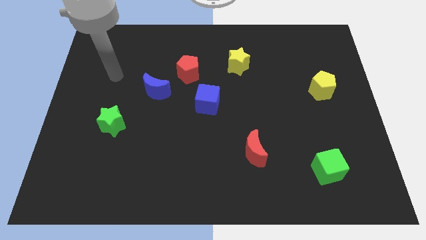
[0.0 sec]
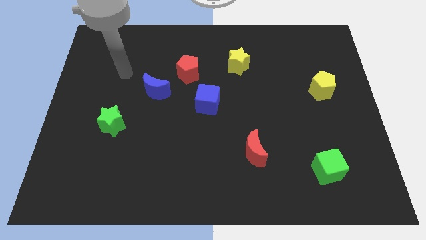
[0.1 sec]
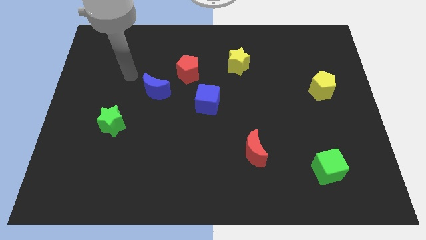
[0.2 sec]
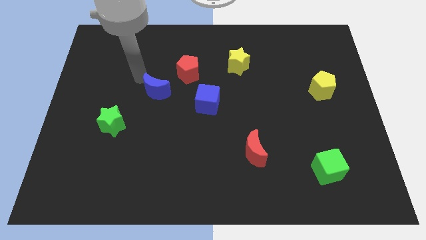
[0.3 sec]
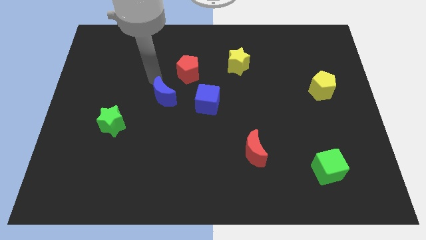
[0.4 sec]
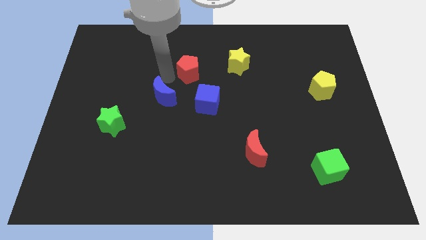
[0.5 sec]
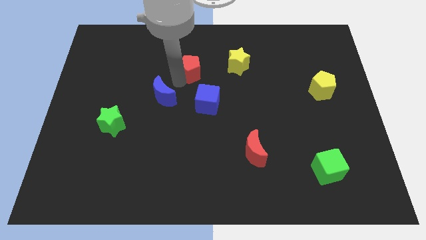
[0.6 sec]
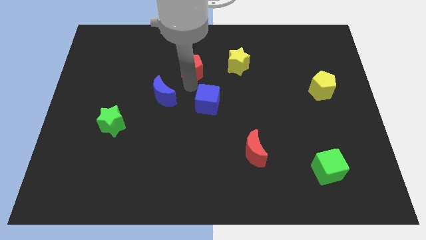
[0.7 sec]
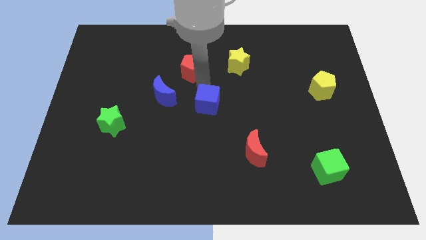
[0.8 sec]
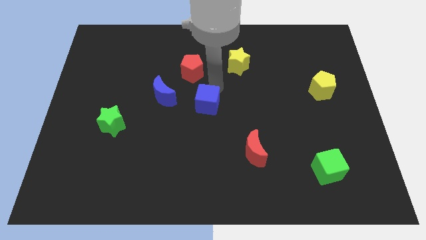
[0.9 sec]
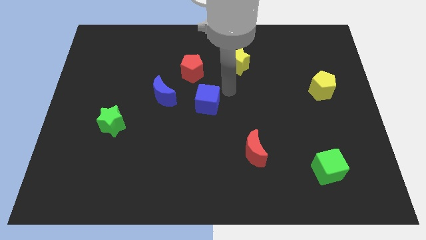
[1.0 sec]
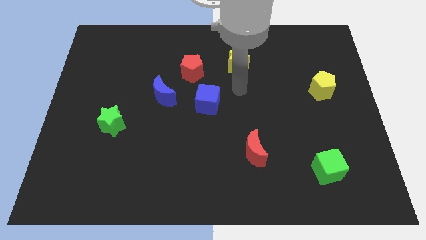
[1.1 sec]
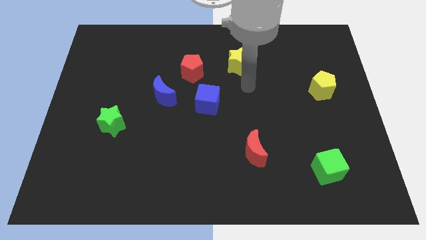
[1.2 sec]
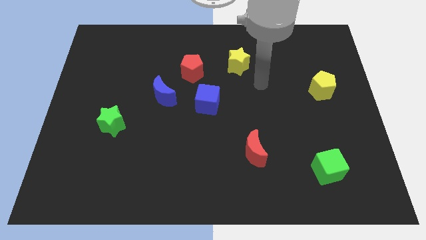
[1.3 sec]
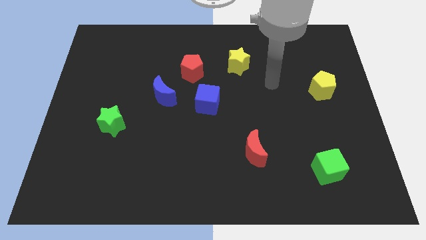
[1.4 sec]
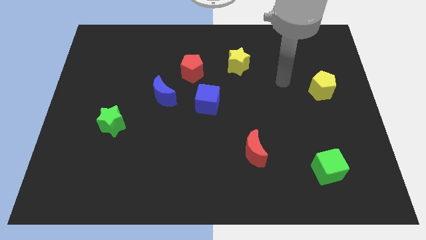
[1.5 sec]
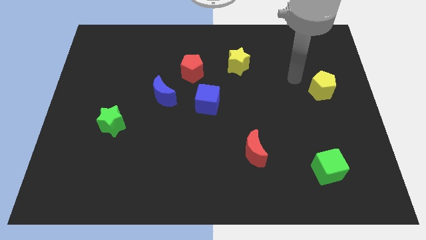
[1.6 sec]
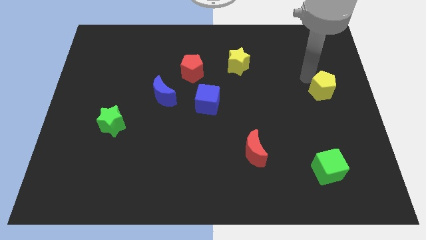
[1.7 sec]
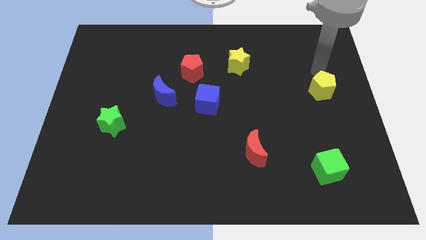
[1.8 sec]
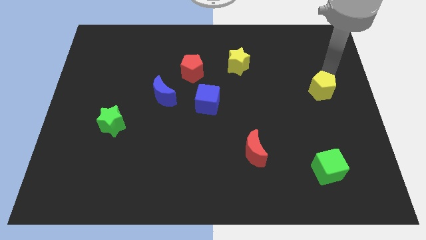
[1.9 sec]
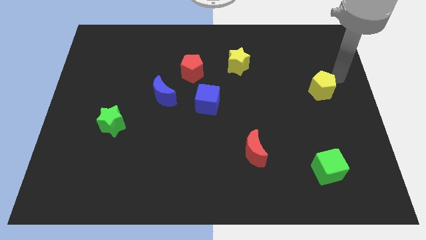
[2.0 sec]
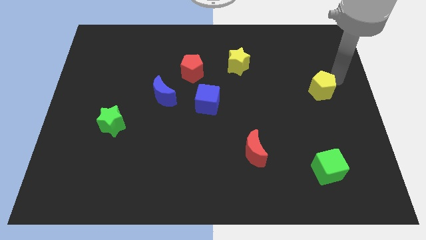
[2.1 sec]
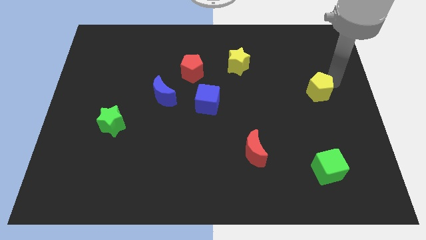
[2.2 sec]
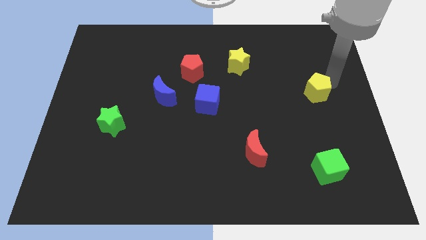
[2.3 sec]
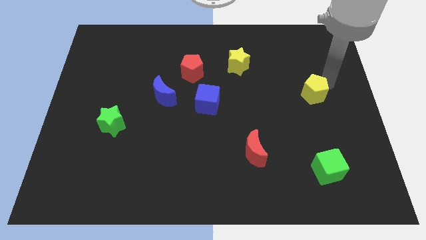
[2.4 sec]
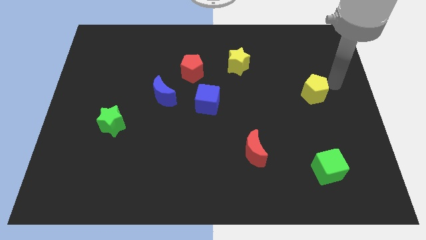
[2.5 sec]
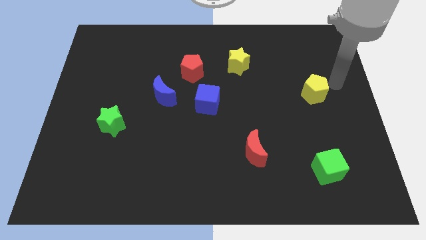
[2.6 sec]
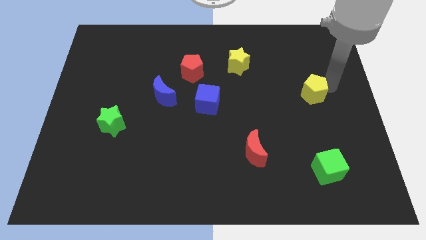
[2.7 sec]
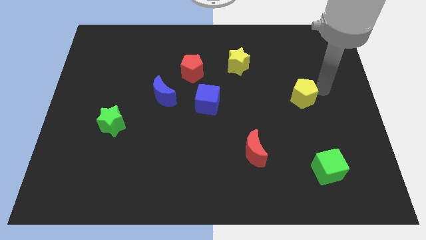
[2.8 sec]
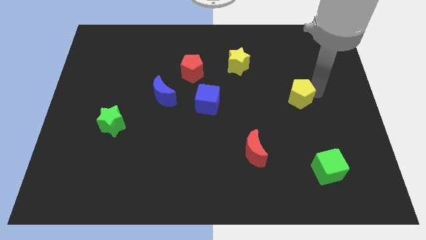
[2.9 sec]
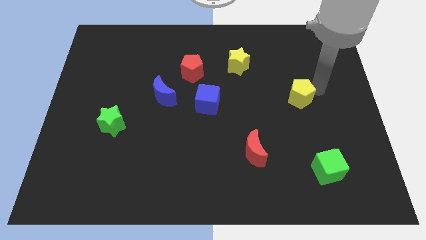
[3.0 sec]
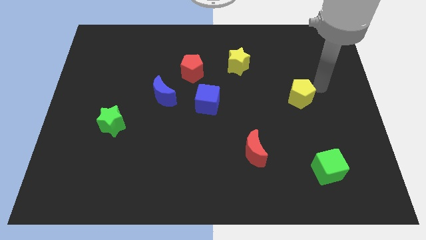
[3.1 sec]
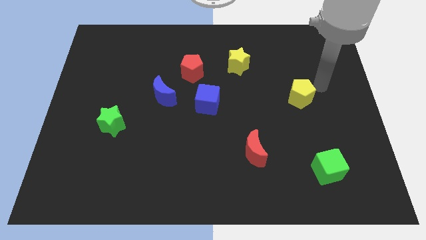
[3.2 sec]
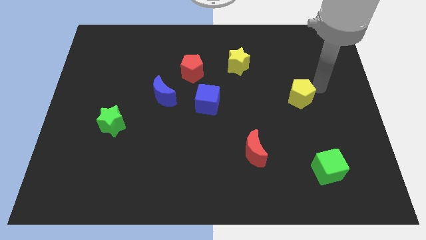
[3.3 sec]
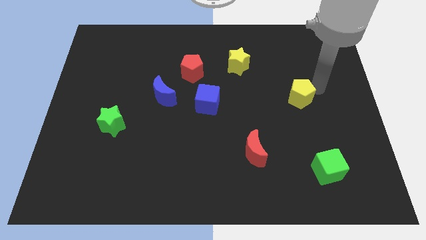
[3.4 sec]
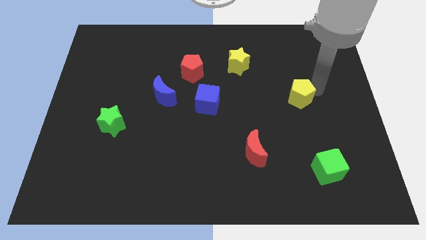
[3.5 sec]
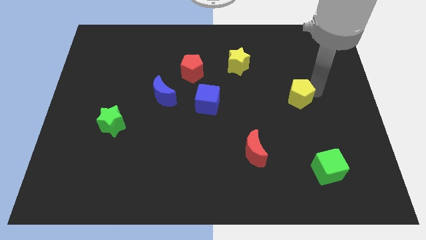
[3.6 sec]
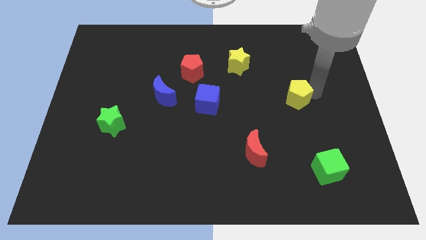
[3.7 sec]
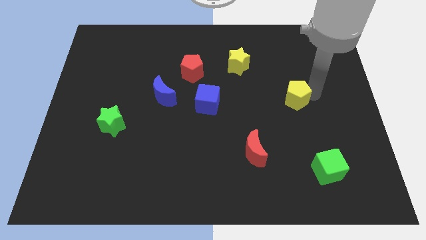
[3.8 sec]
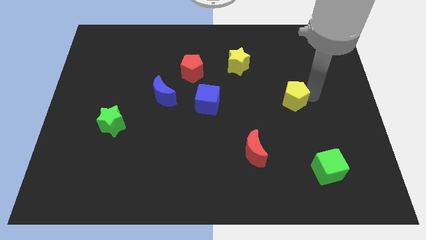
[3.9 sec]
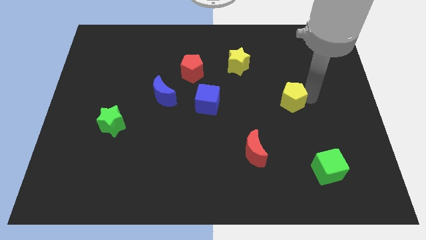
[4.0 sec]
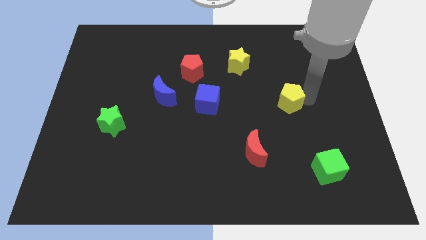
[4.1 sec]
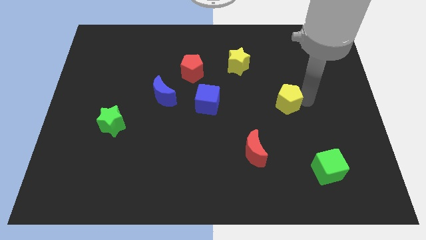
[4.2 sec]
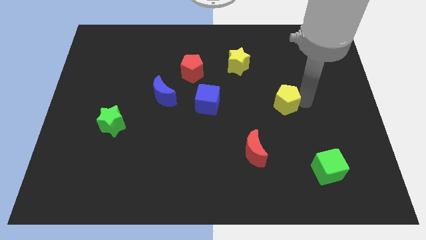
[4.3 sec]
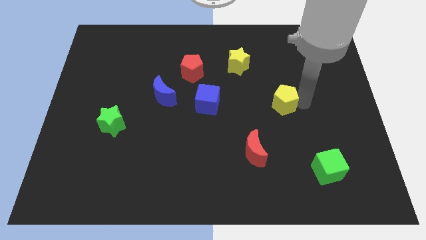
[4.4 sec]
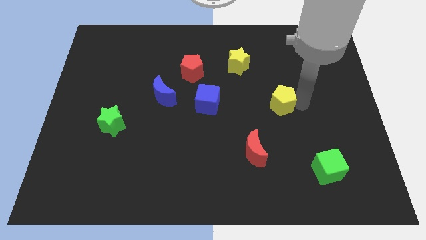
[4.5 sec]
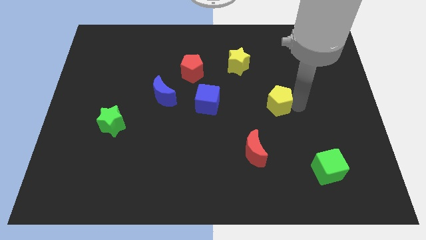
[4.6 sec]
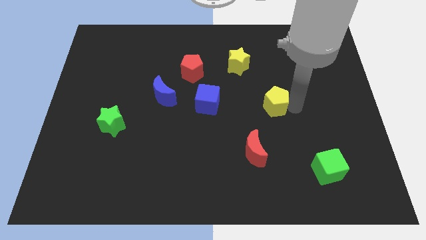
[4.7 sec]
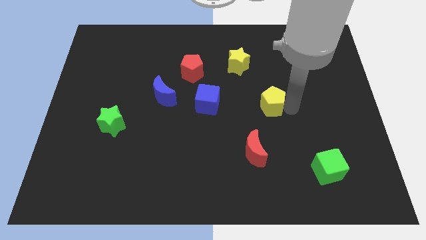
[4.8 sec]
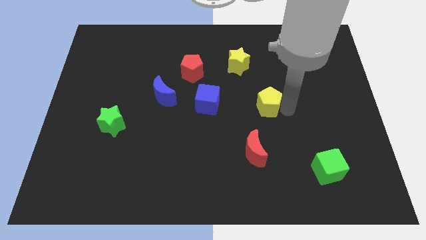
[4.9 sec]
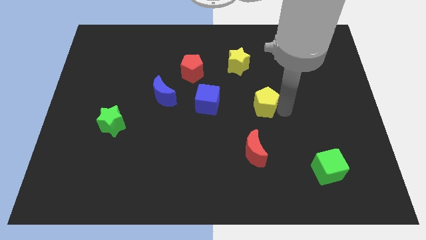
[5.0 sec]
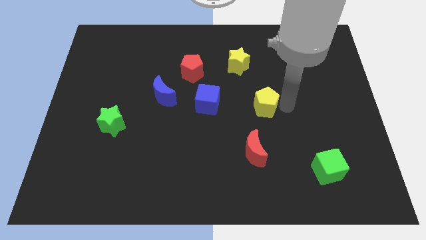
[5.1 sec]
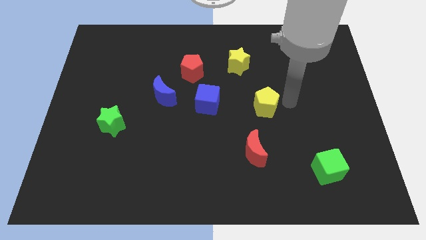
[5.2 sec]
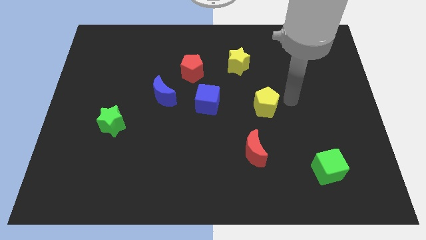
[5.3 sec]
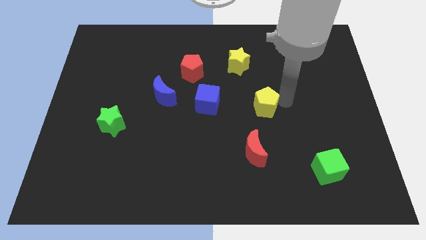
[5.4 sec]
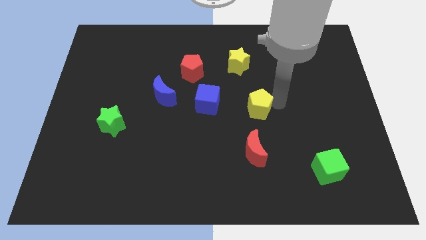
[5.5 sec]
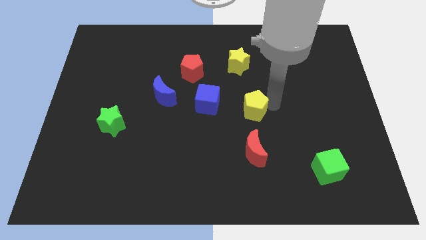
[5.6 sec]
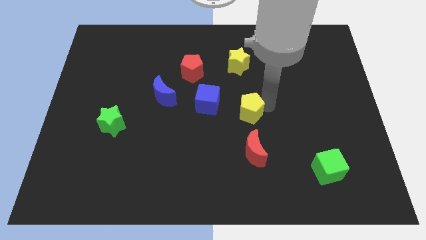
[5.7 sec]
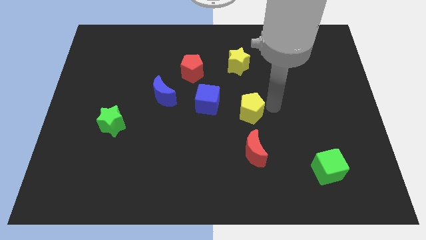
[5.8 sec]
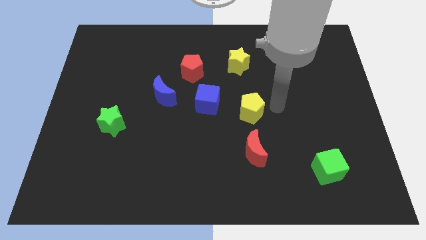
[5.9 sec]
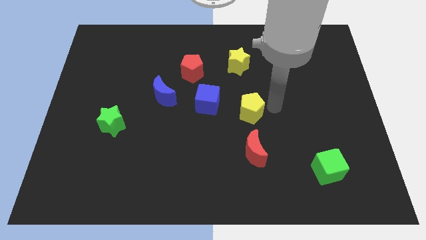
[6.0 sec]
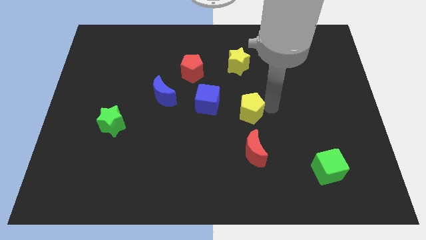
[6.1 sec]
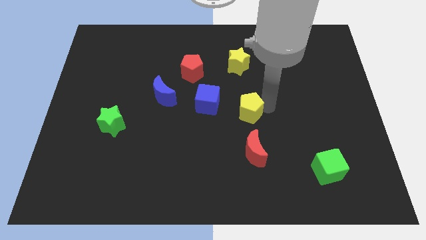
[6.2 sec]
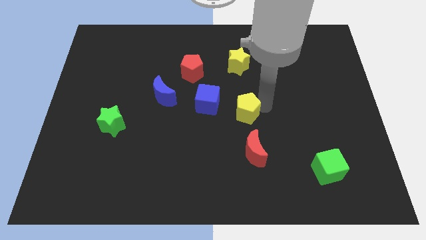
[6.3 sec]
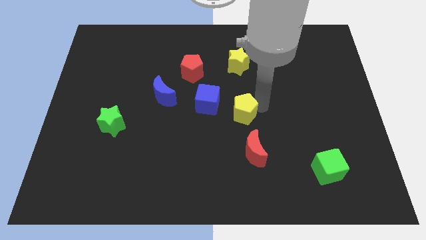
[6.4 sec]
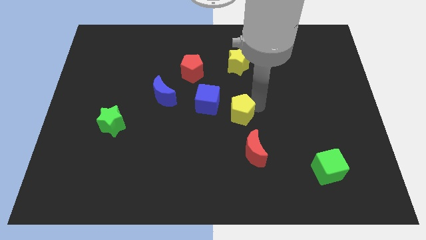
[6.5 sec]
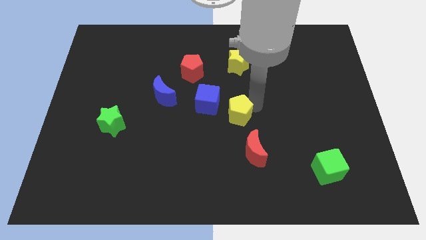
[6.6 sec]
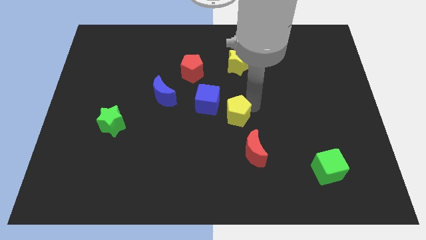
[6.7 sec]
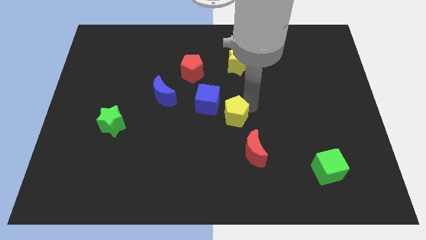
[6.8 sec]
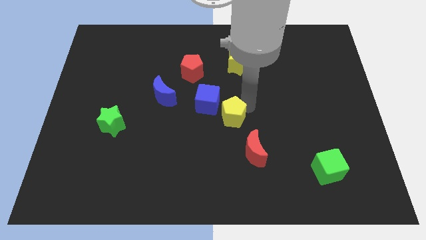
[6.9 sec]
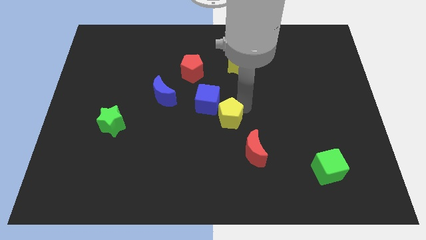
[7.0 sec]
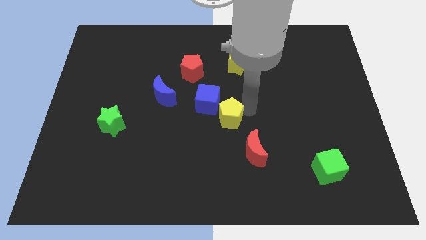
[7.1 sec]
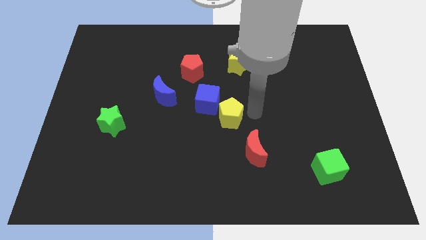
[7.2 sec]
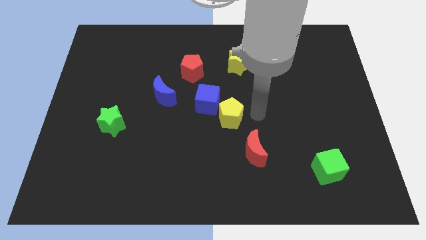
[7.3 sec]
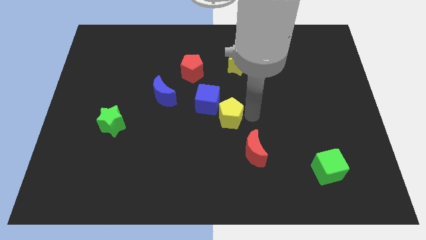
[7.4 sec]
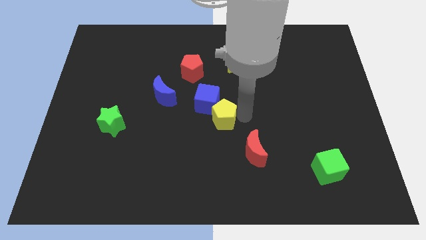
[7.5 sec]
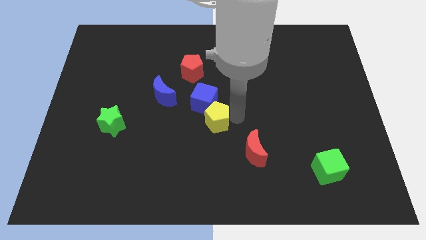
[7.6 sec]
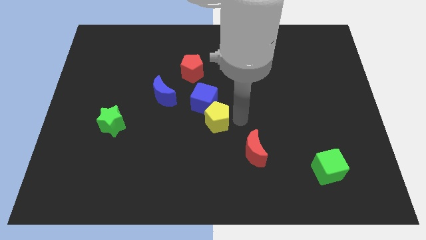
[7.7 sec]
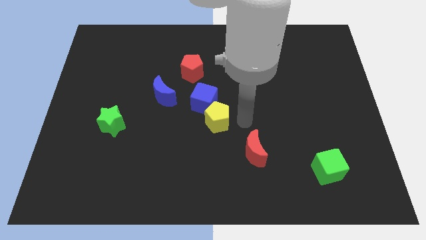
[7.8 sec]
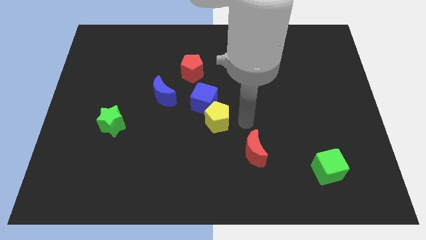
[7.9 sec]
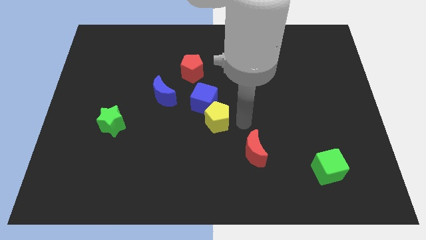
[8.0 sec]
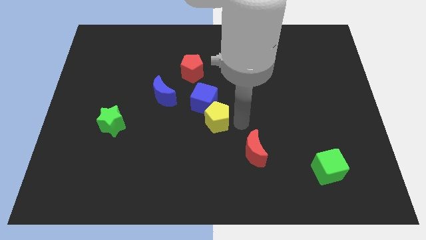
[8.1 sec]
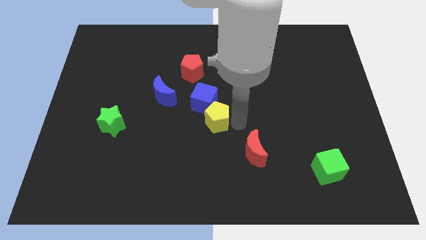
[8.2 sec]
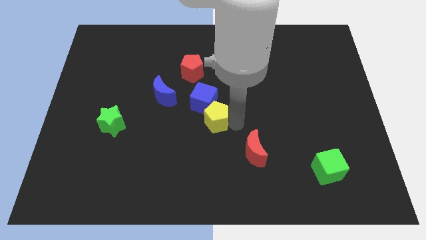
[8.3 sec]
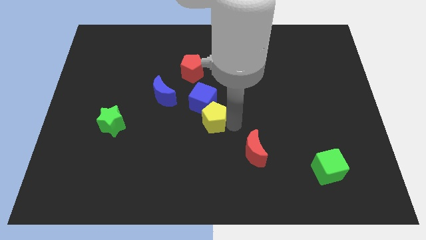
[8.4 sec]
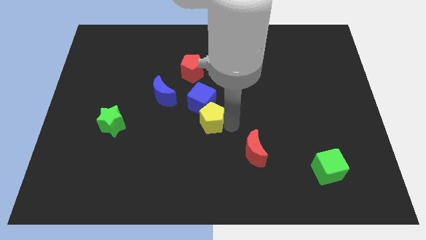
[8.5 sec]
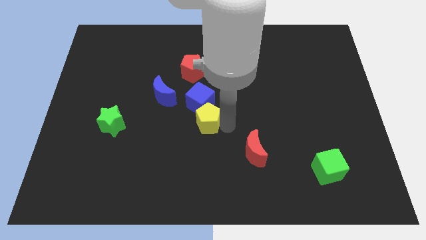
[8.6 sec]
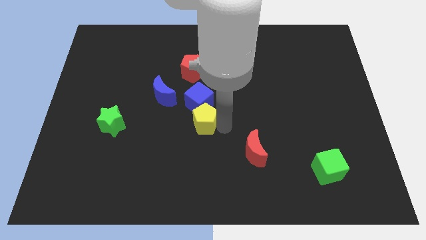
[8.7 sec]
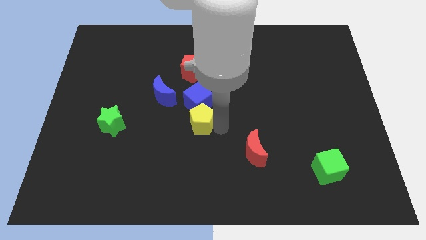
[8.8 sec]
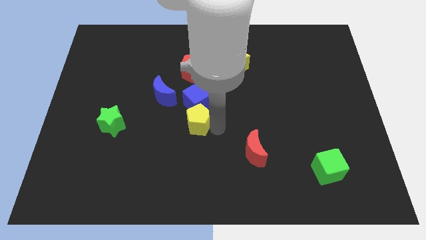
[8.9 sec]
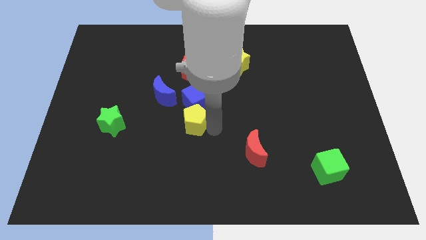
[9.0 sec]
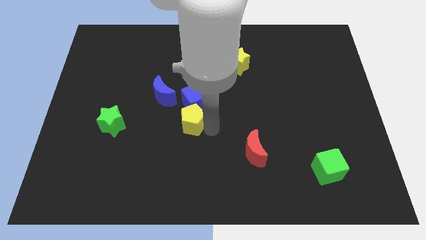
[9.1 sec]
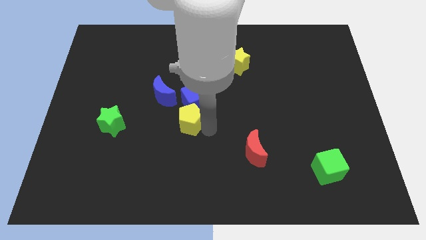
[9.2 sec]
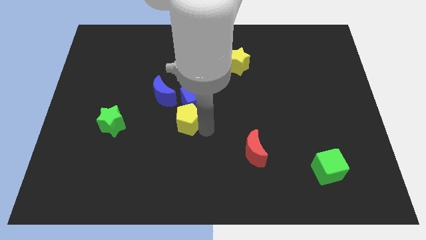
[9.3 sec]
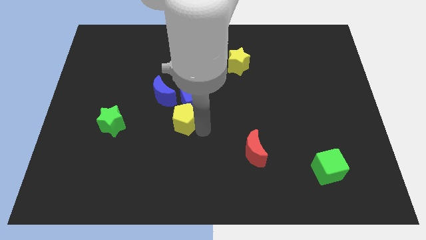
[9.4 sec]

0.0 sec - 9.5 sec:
move the yellow pentagon to the right of the green star
